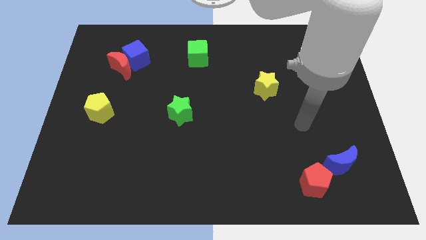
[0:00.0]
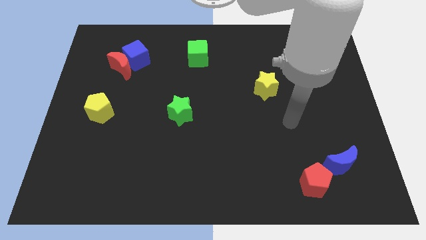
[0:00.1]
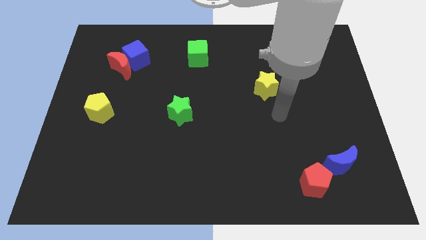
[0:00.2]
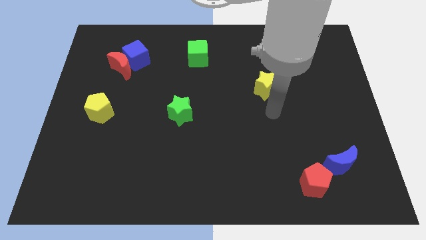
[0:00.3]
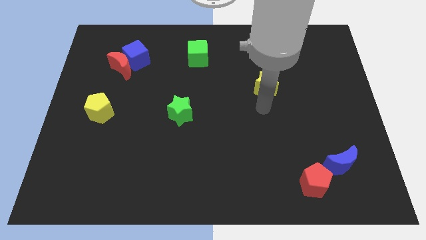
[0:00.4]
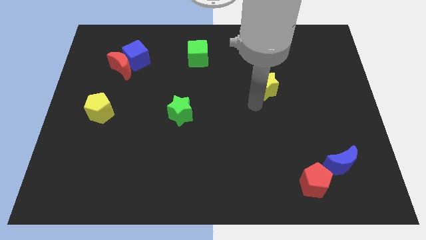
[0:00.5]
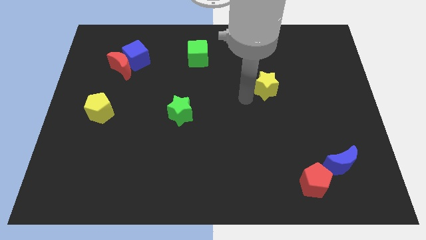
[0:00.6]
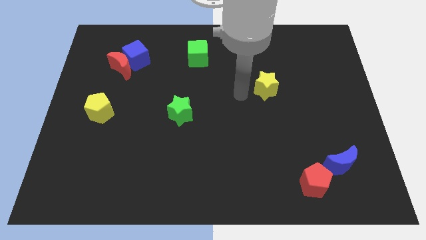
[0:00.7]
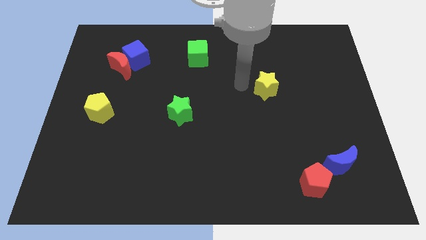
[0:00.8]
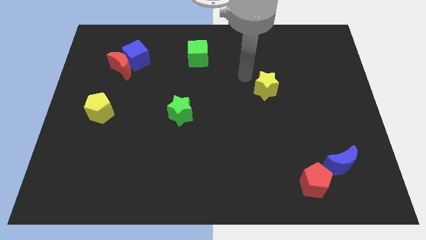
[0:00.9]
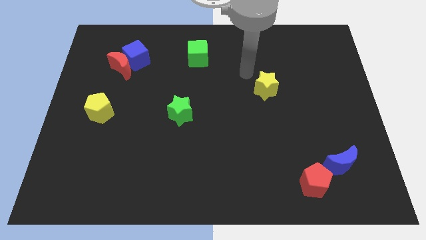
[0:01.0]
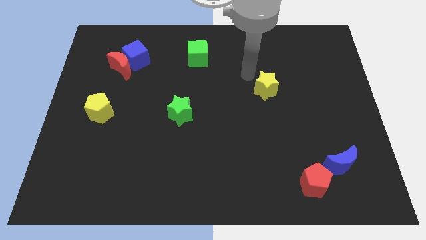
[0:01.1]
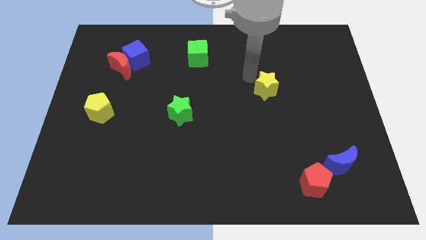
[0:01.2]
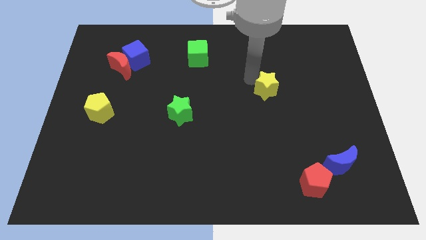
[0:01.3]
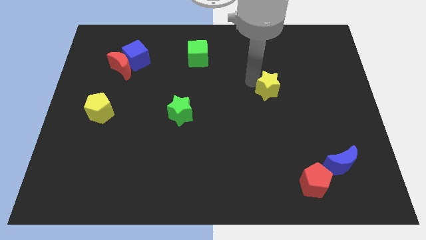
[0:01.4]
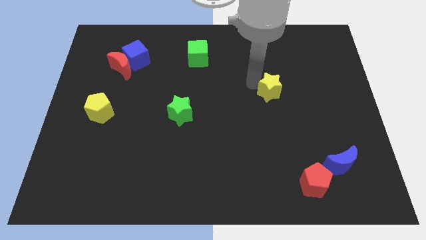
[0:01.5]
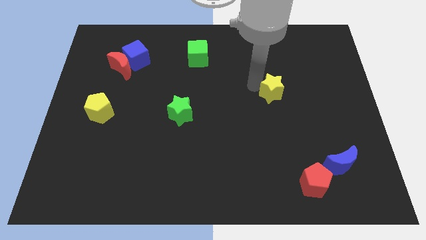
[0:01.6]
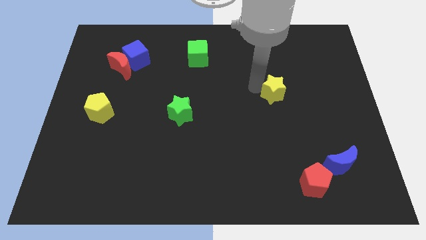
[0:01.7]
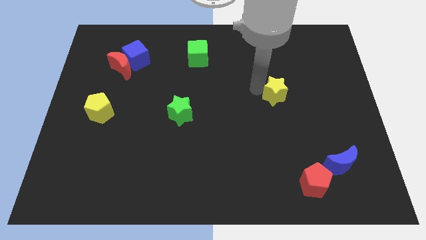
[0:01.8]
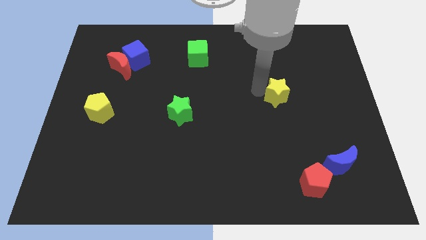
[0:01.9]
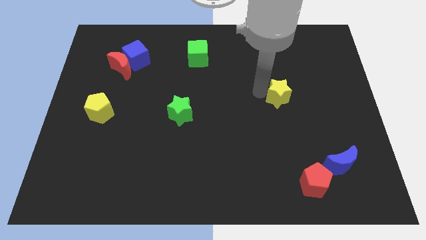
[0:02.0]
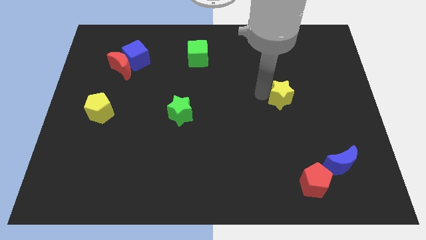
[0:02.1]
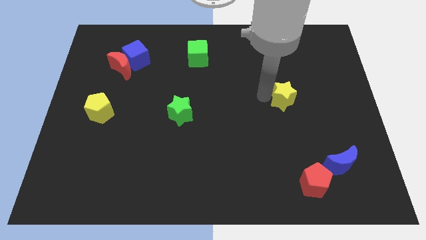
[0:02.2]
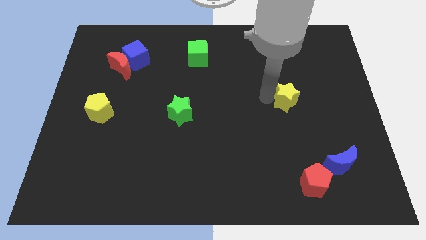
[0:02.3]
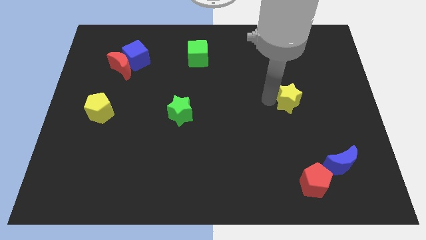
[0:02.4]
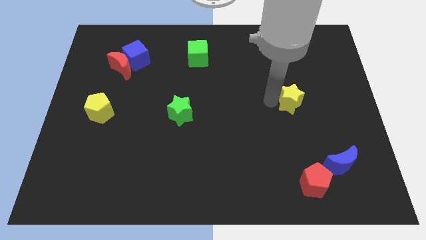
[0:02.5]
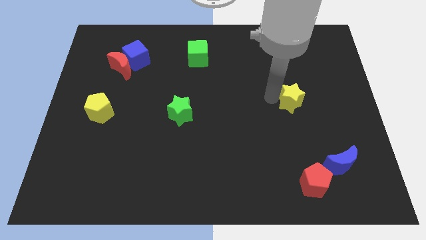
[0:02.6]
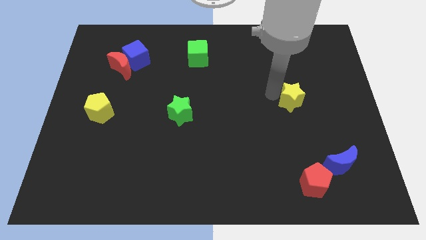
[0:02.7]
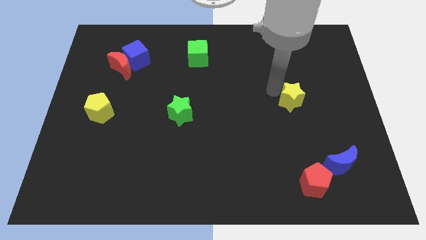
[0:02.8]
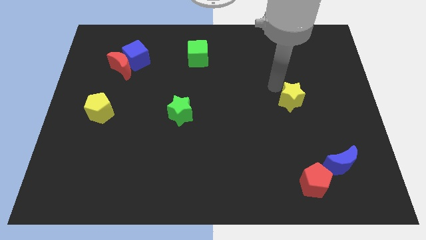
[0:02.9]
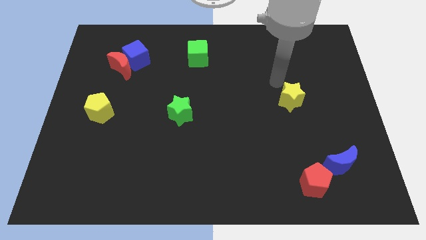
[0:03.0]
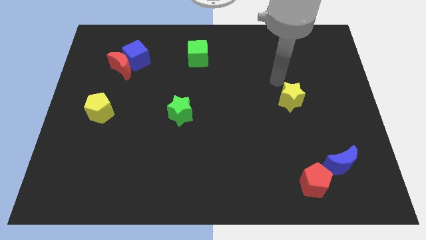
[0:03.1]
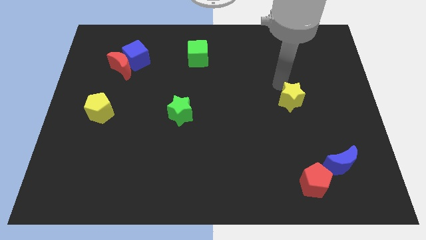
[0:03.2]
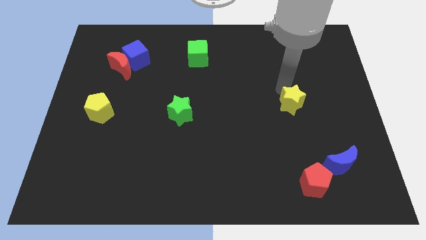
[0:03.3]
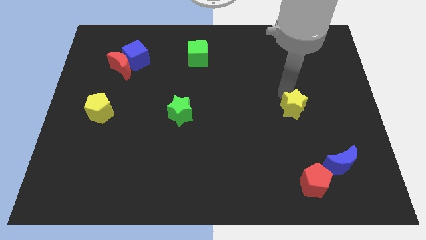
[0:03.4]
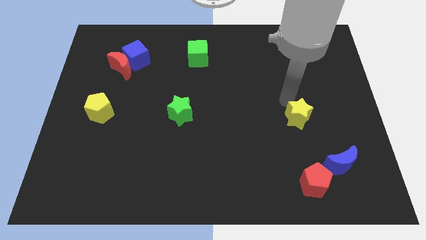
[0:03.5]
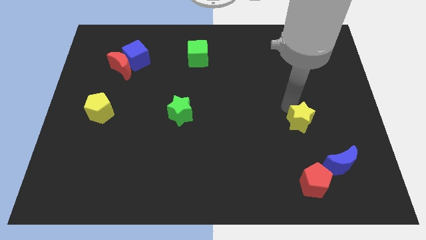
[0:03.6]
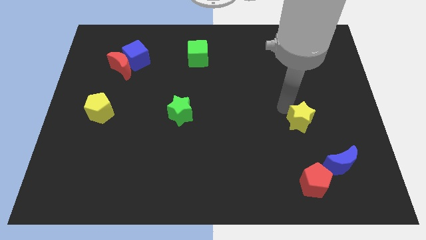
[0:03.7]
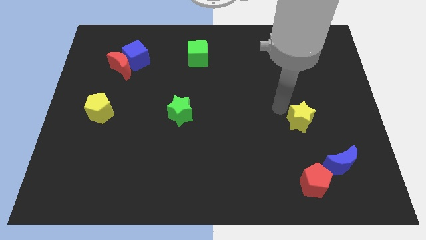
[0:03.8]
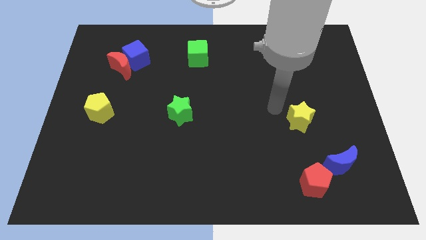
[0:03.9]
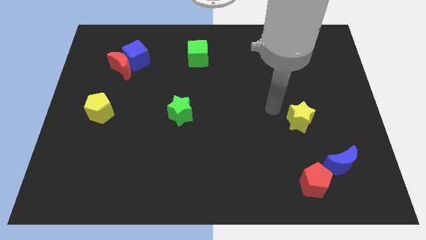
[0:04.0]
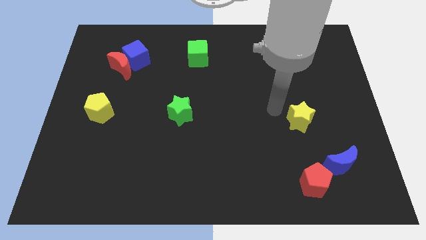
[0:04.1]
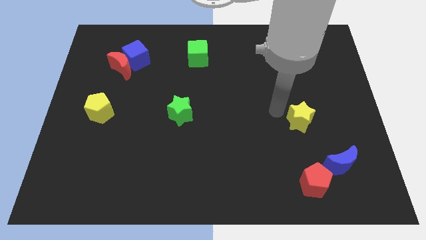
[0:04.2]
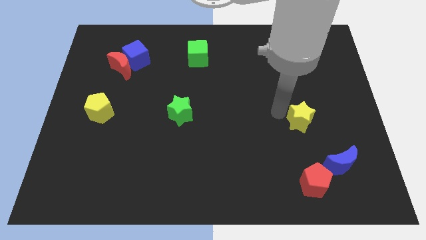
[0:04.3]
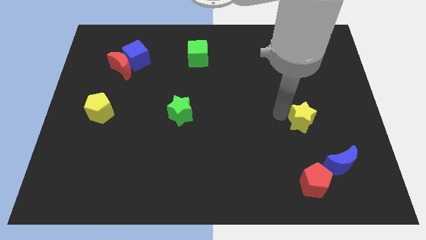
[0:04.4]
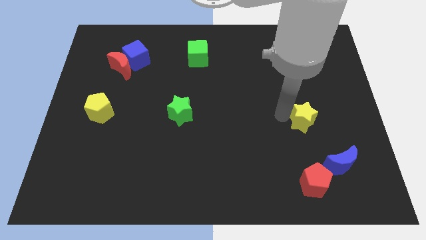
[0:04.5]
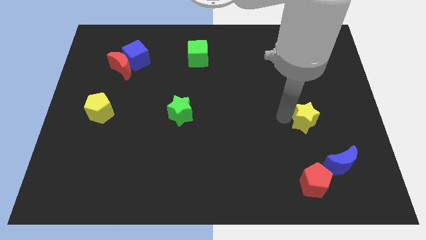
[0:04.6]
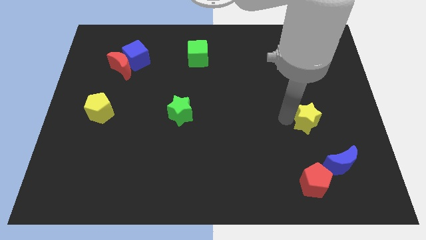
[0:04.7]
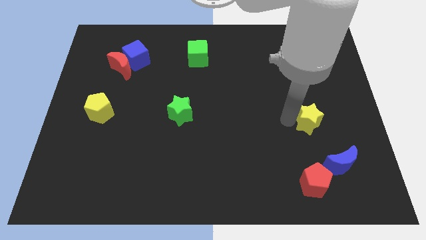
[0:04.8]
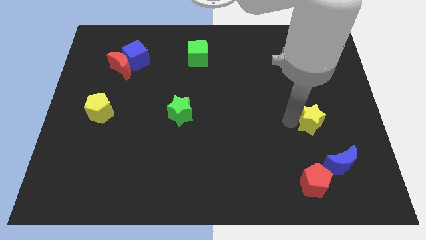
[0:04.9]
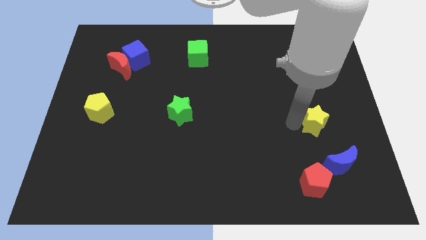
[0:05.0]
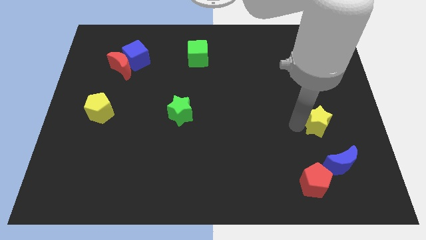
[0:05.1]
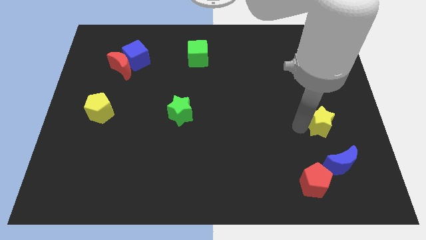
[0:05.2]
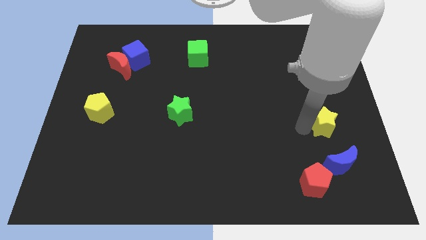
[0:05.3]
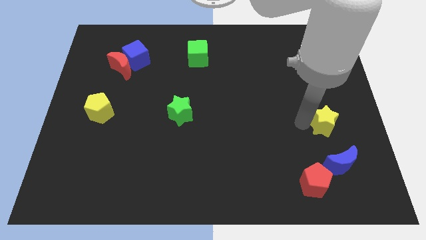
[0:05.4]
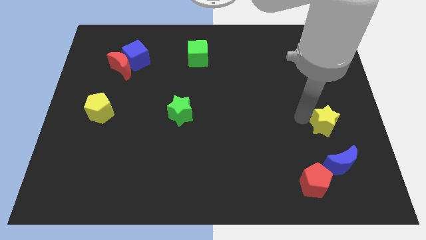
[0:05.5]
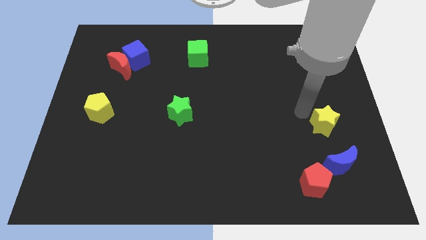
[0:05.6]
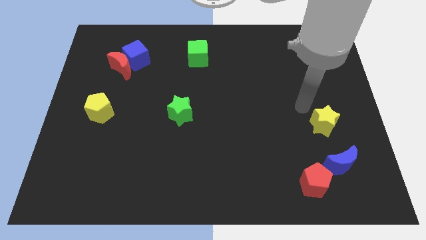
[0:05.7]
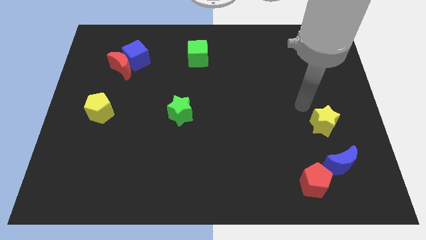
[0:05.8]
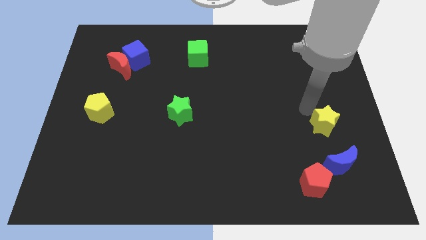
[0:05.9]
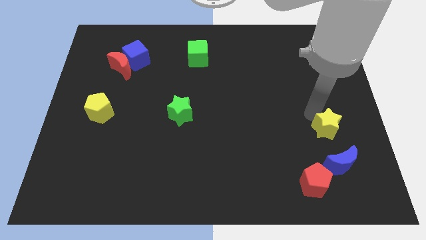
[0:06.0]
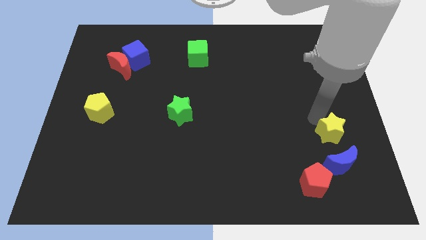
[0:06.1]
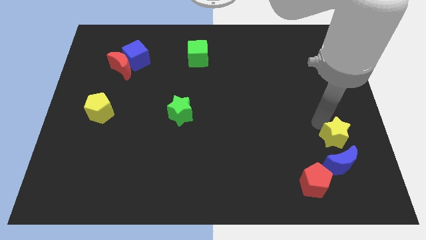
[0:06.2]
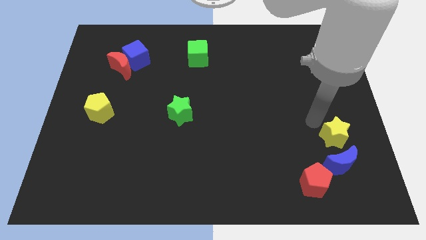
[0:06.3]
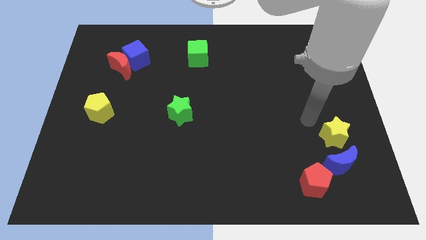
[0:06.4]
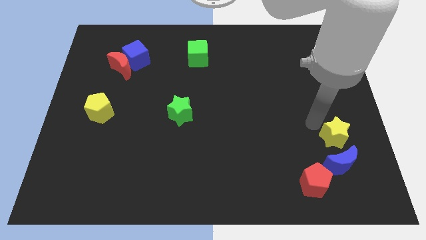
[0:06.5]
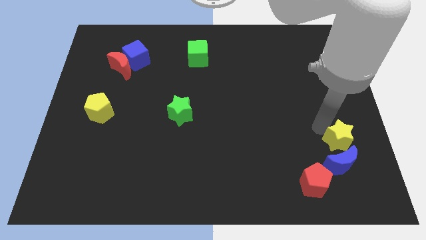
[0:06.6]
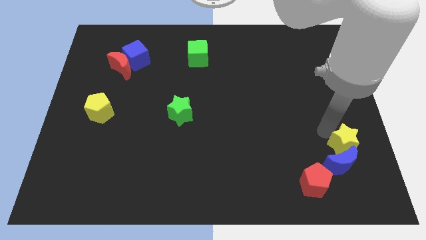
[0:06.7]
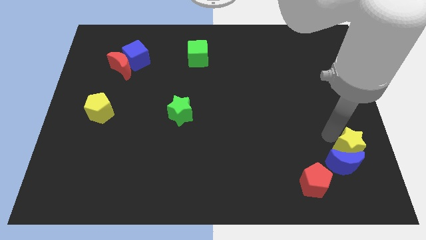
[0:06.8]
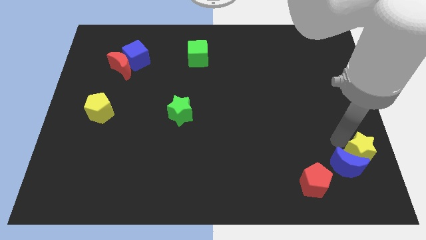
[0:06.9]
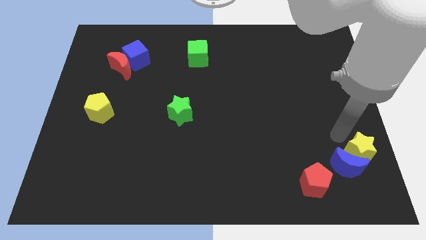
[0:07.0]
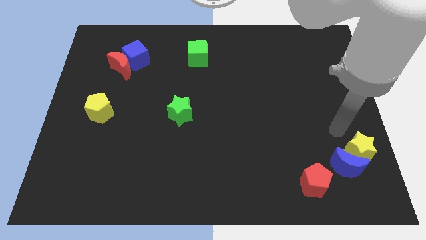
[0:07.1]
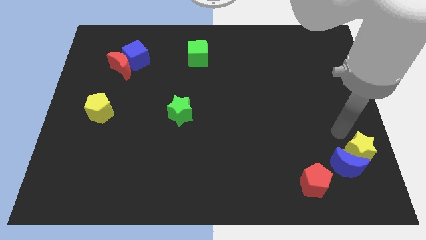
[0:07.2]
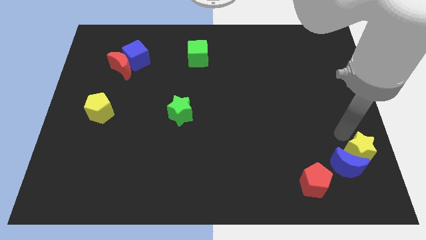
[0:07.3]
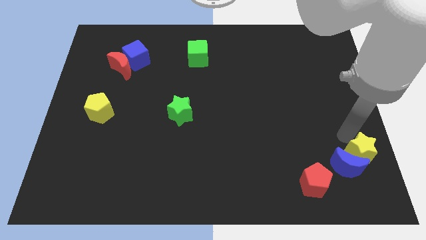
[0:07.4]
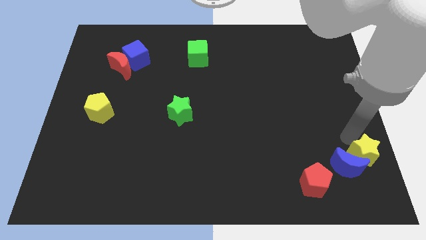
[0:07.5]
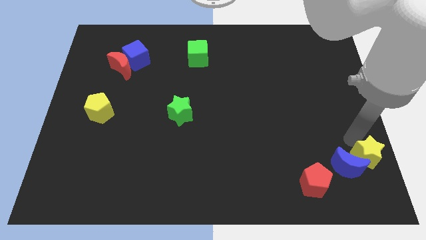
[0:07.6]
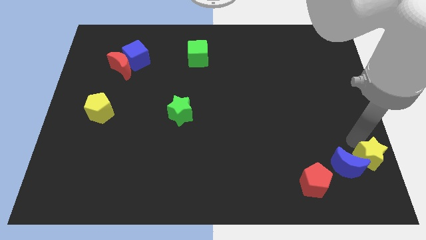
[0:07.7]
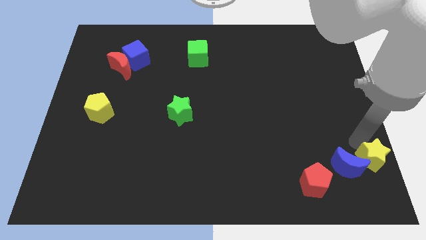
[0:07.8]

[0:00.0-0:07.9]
slide the yellow star to the lower right corner
